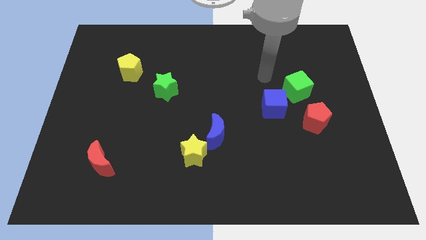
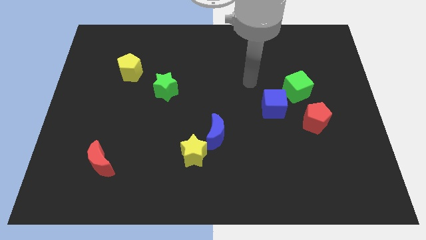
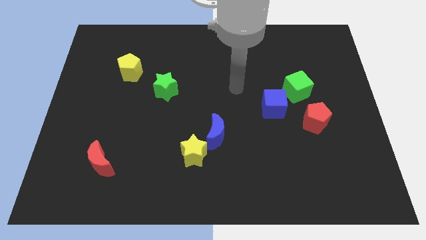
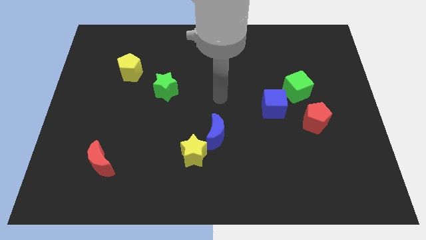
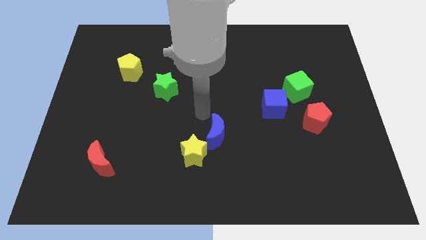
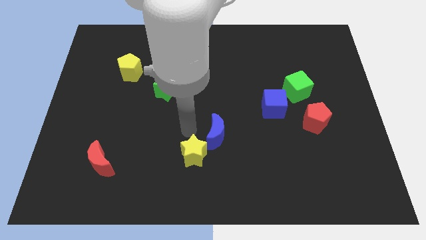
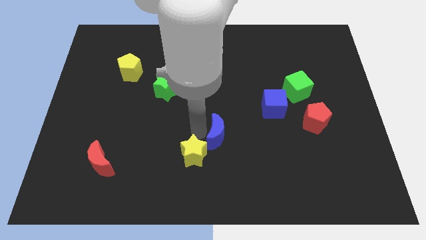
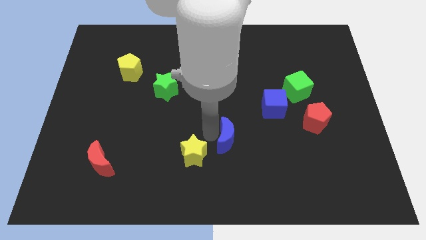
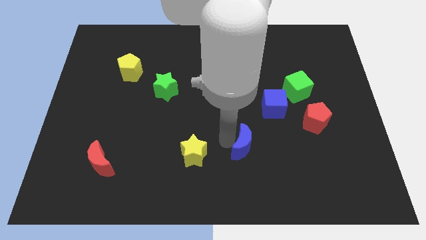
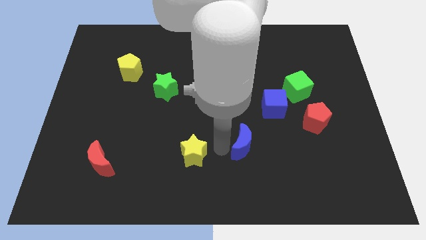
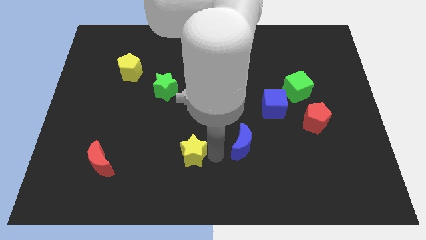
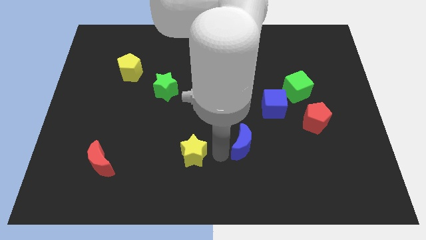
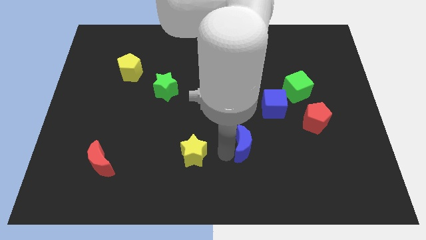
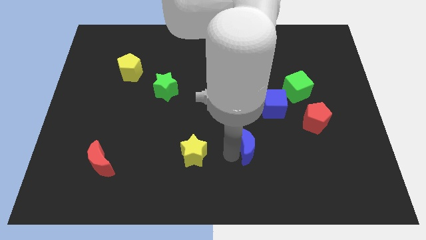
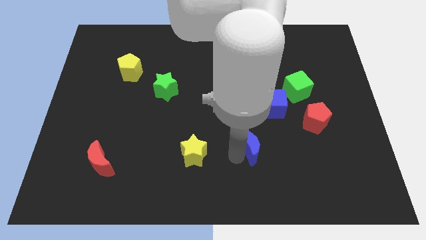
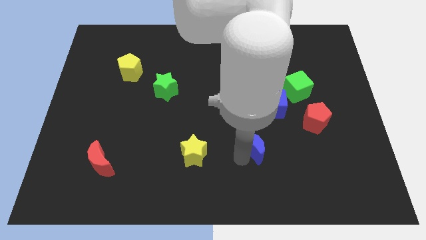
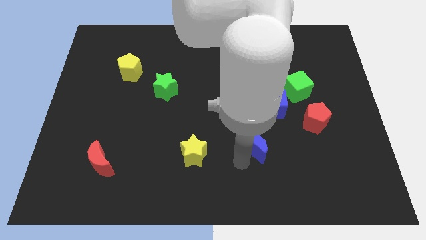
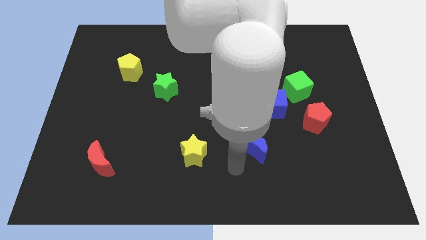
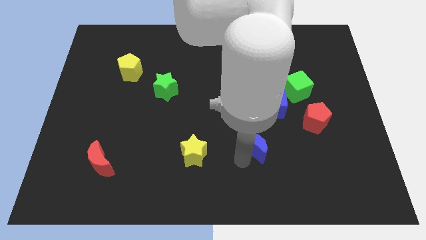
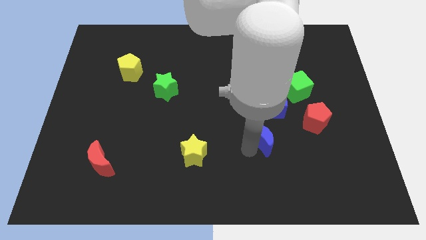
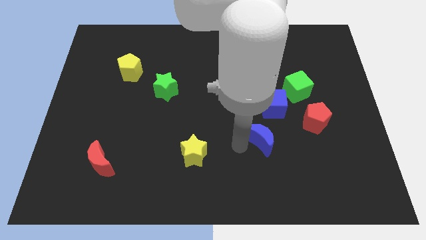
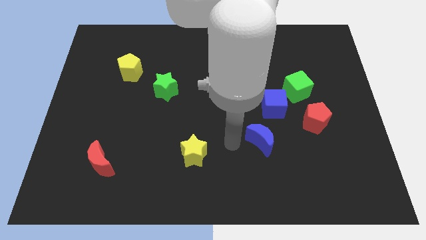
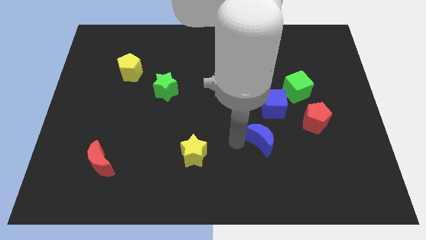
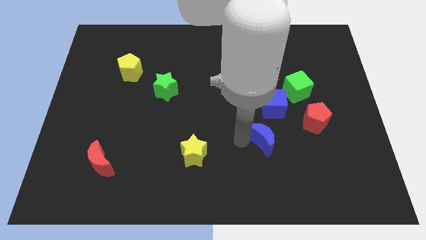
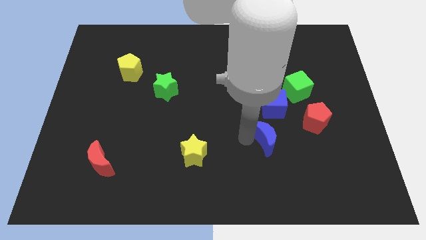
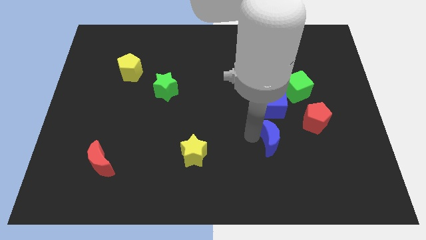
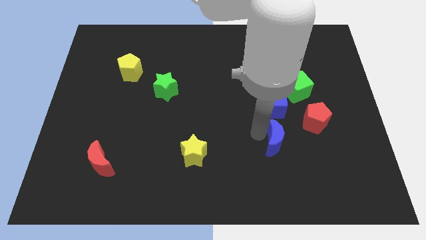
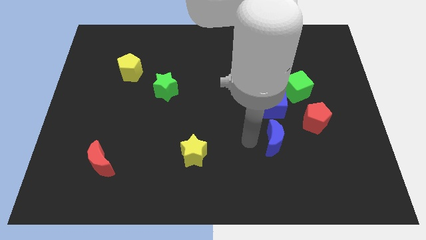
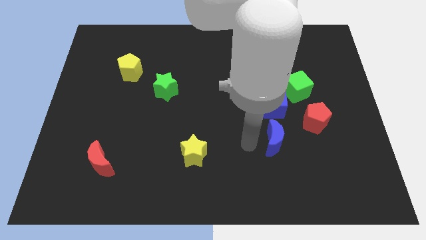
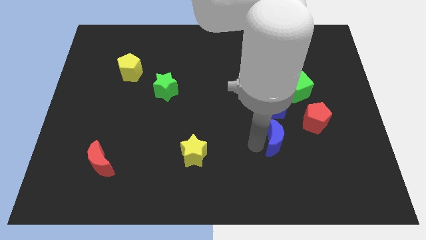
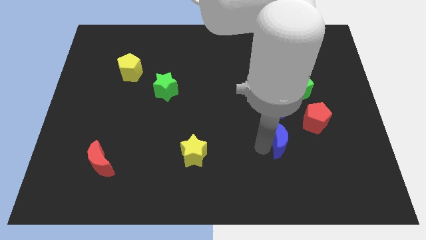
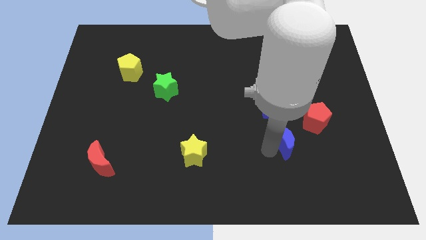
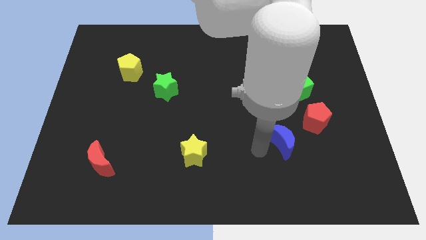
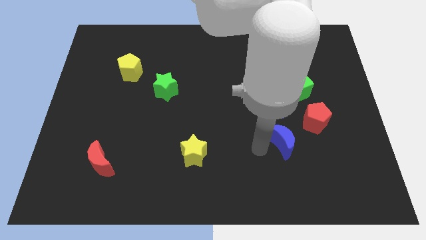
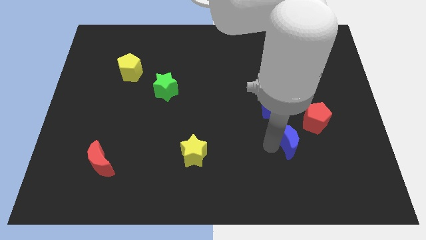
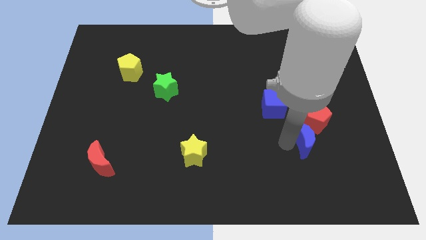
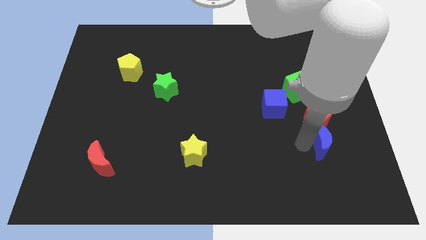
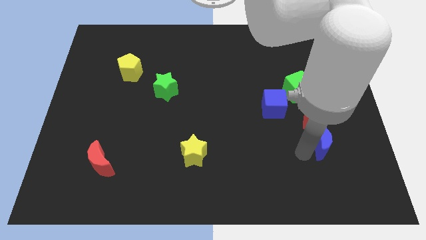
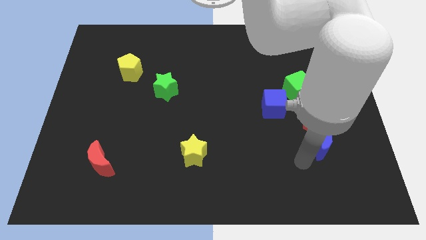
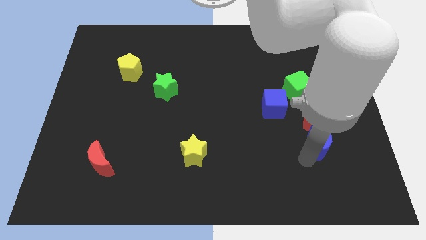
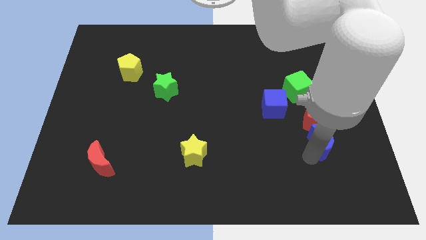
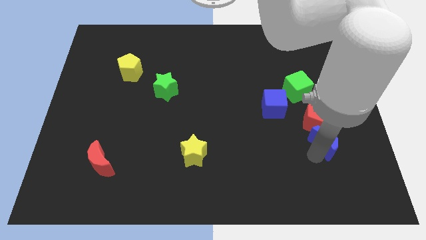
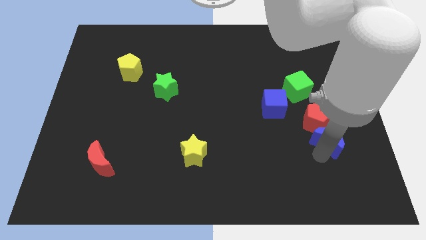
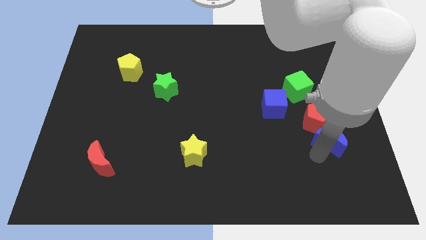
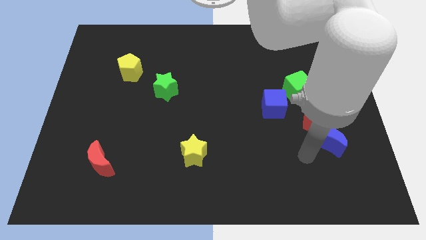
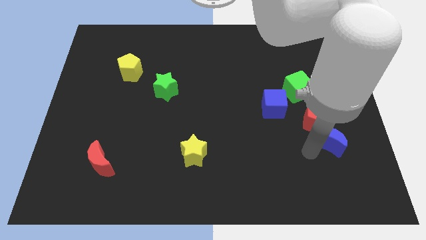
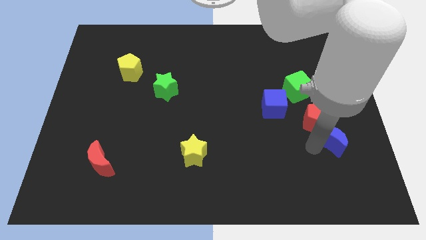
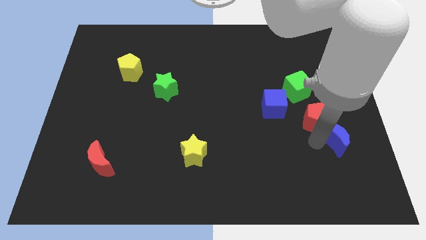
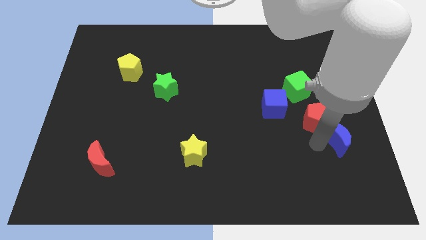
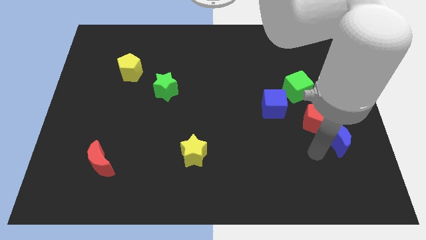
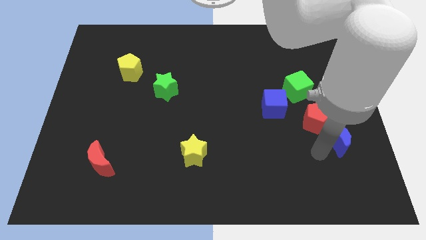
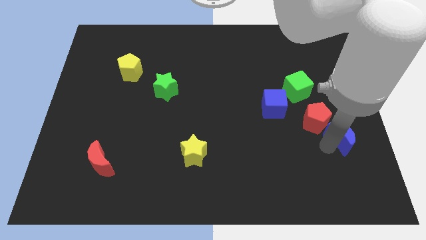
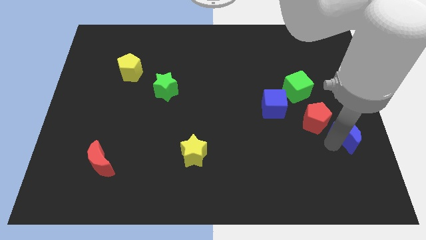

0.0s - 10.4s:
put the blue moon to the right side of the board

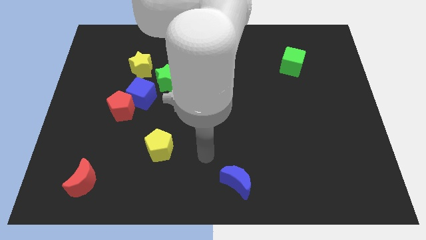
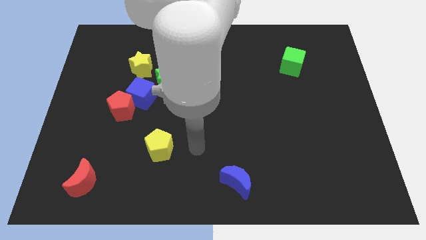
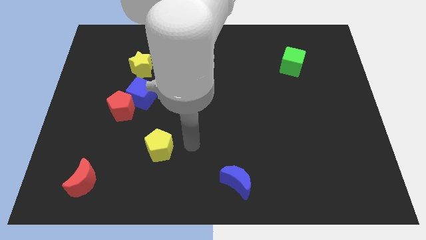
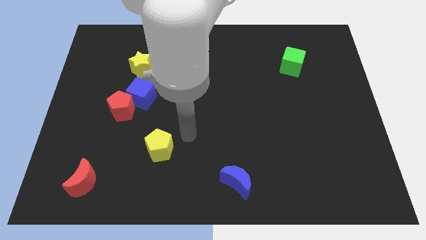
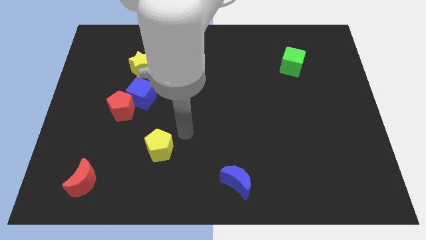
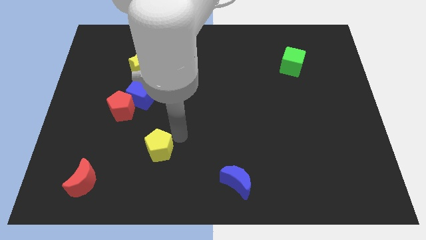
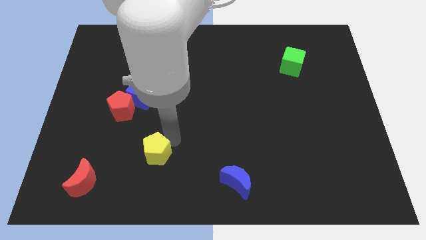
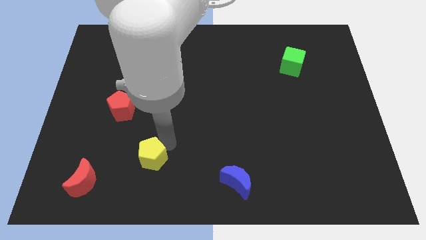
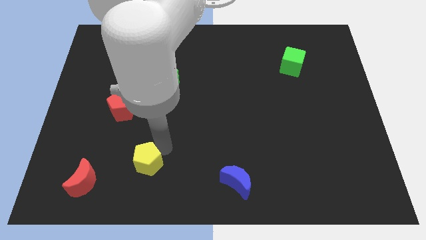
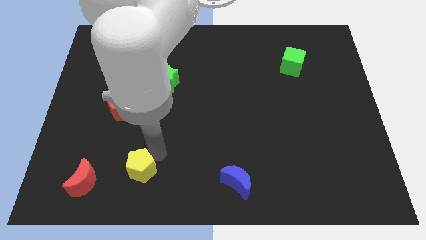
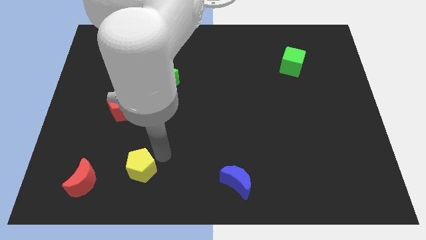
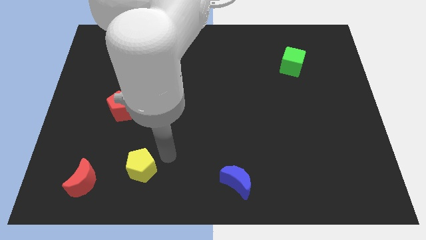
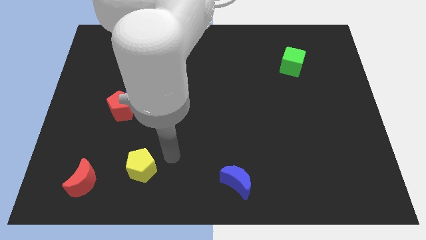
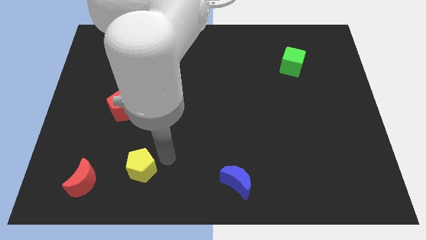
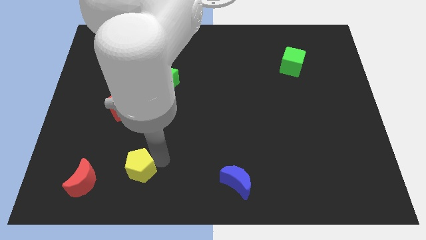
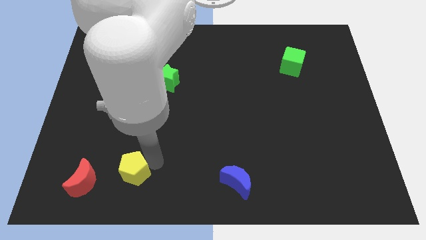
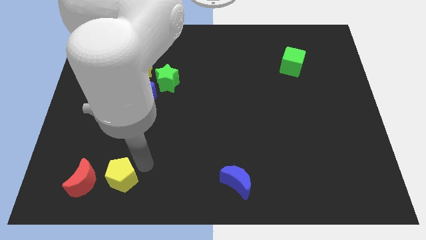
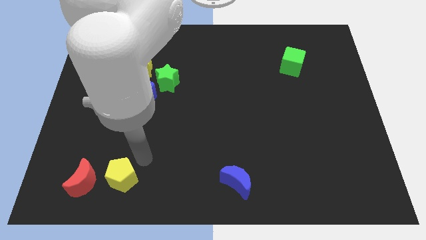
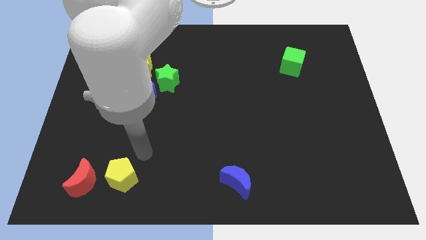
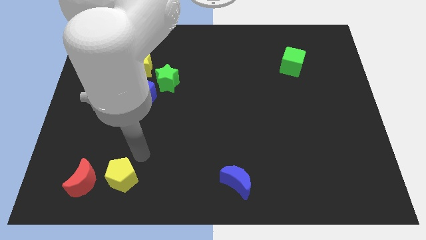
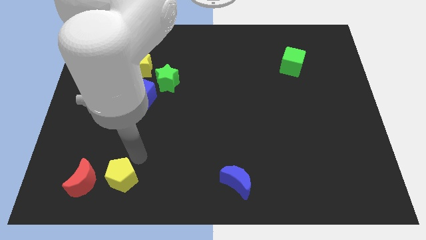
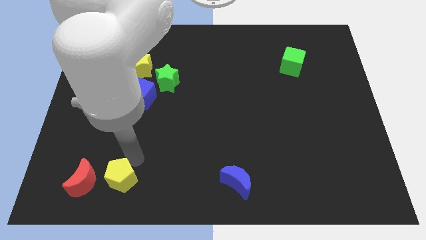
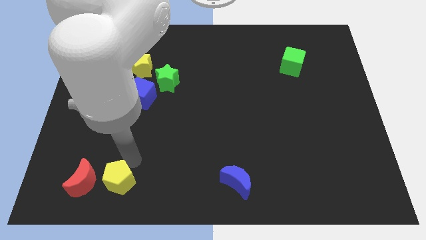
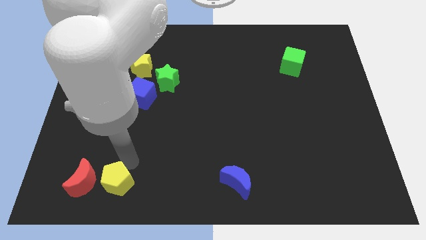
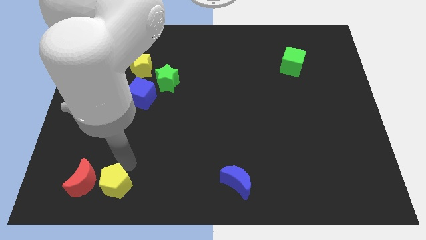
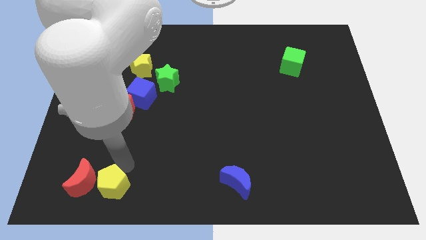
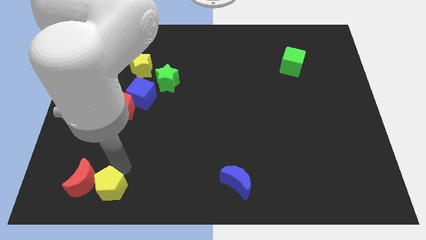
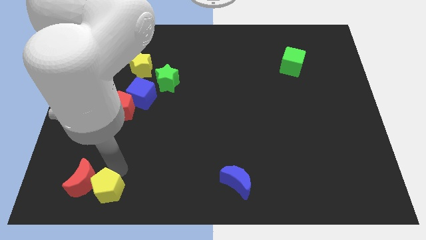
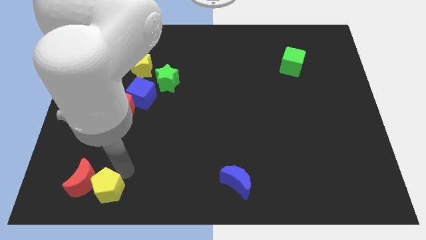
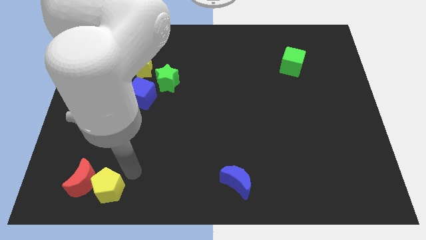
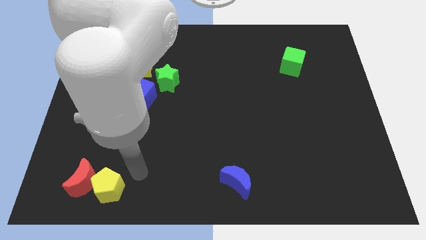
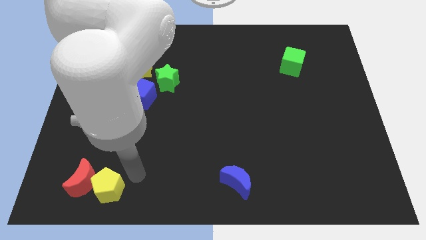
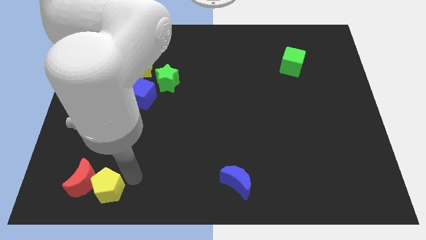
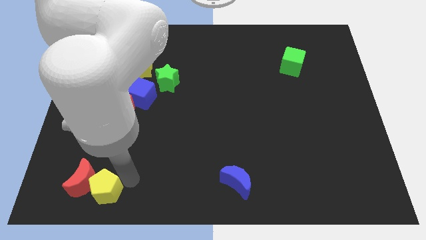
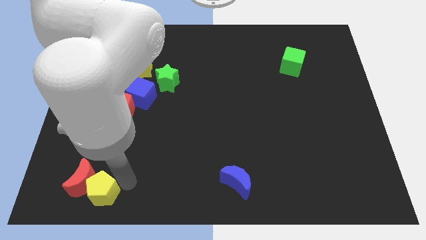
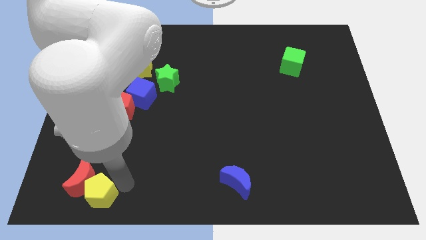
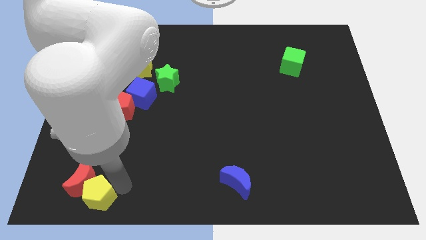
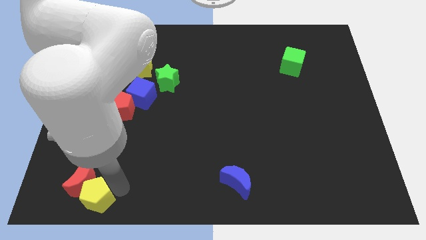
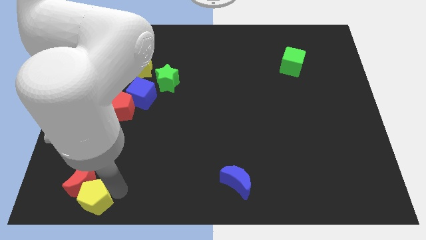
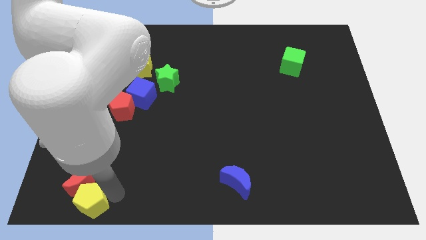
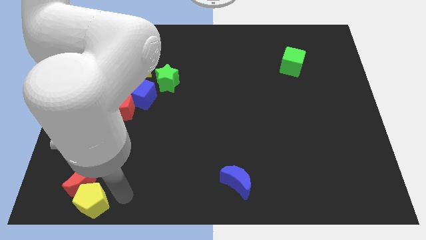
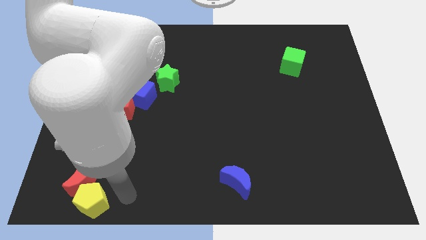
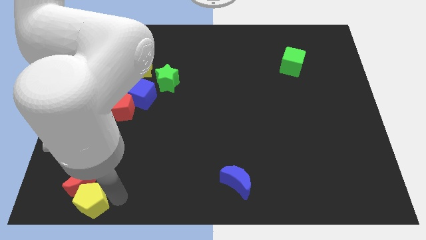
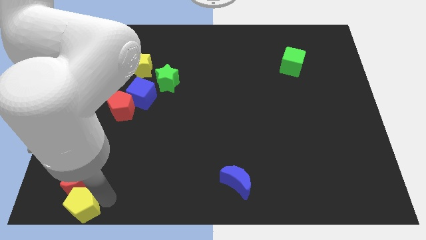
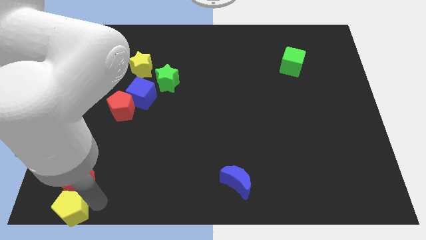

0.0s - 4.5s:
slide the yellow pentagon to the lower left corner
